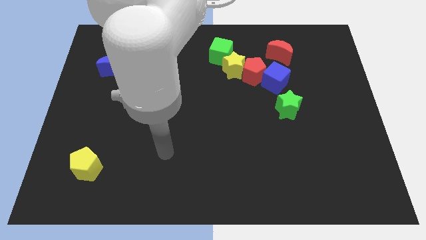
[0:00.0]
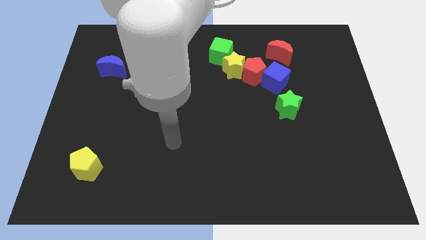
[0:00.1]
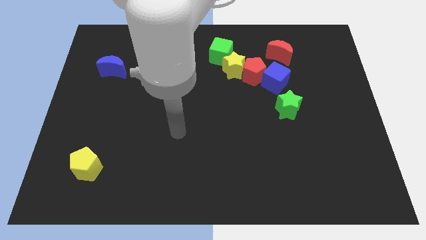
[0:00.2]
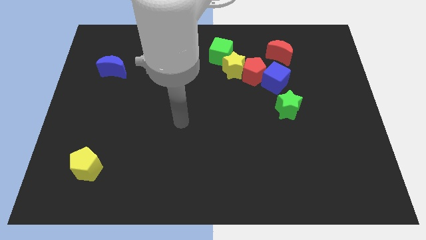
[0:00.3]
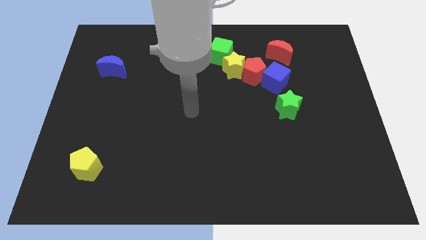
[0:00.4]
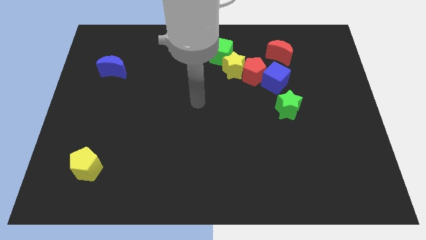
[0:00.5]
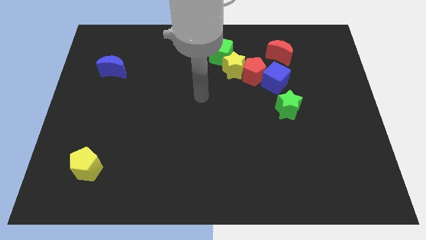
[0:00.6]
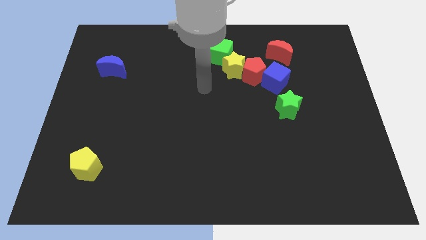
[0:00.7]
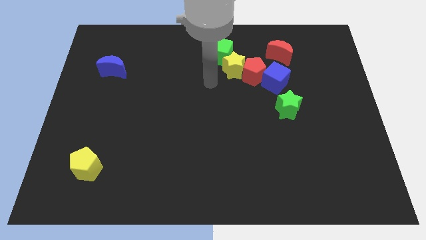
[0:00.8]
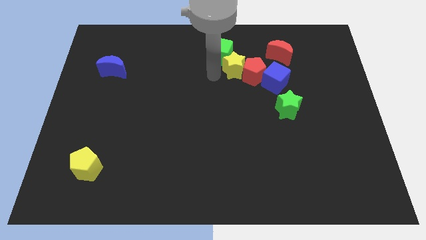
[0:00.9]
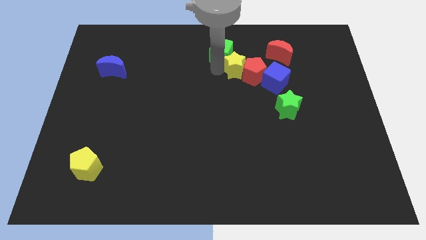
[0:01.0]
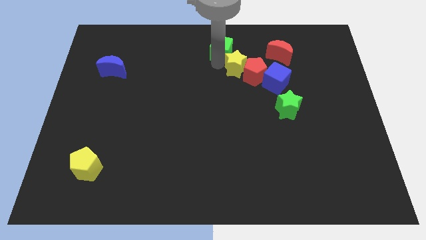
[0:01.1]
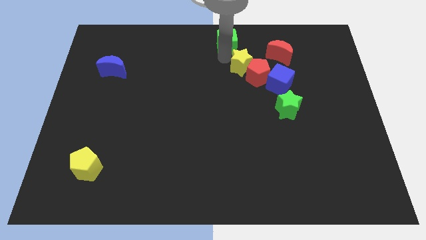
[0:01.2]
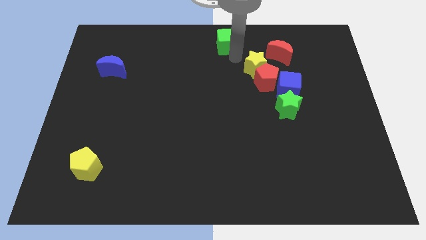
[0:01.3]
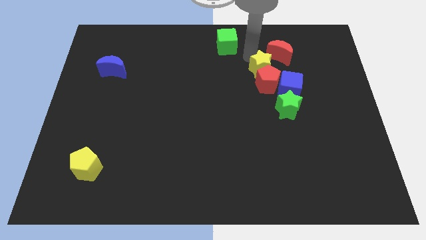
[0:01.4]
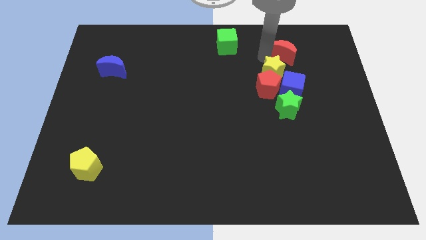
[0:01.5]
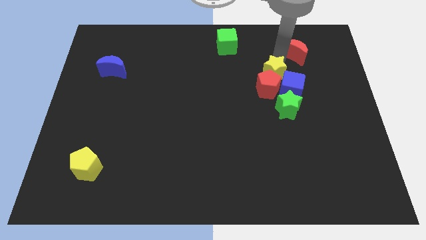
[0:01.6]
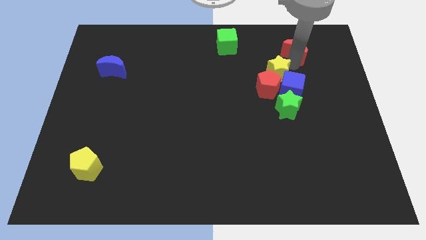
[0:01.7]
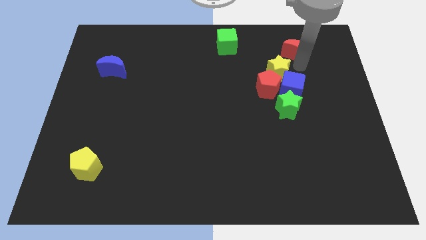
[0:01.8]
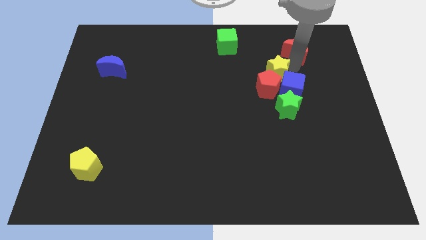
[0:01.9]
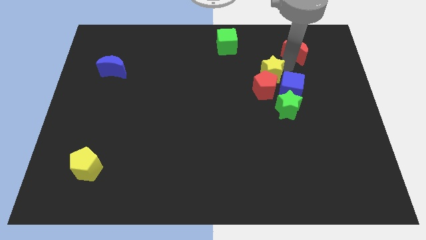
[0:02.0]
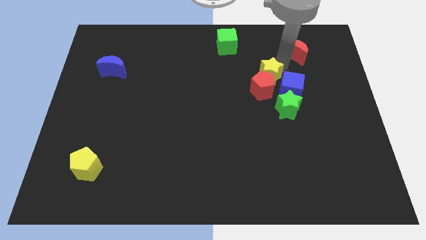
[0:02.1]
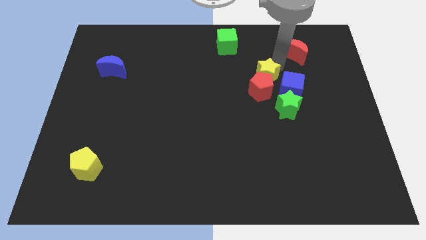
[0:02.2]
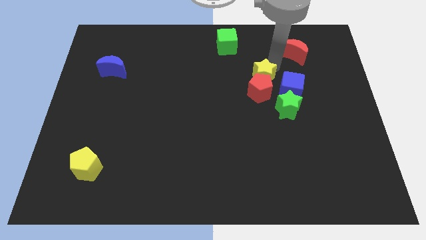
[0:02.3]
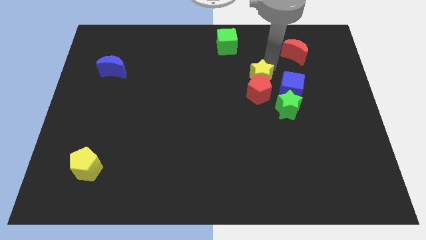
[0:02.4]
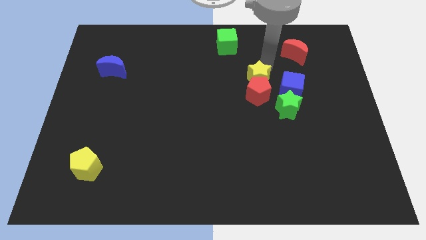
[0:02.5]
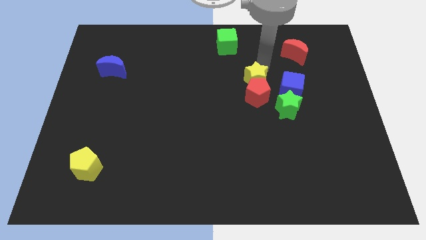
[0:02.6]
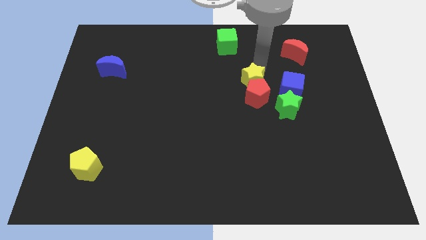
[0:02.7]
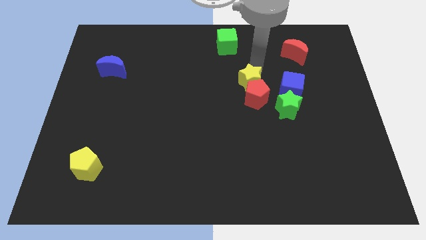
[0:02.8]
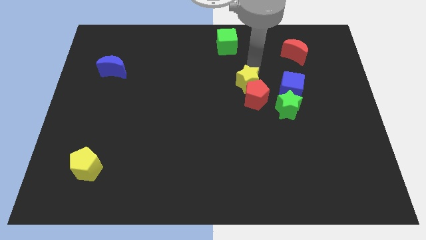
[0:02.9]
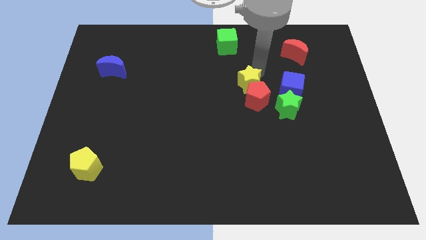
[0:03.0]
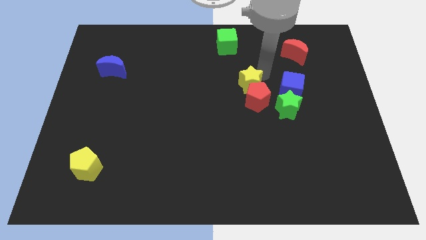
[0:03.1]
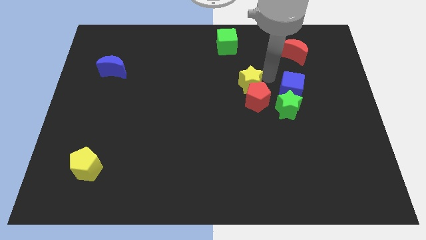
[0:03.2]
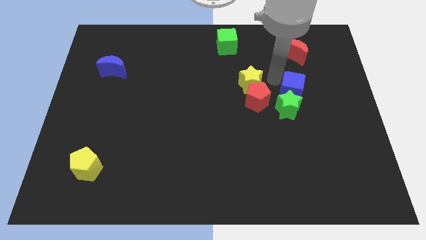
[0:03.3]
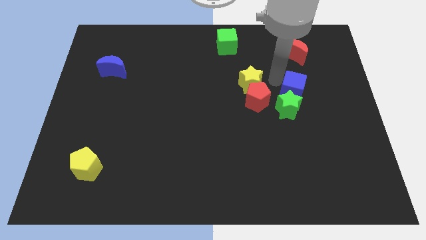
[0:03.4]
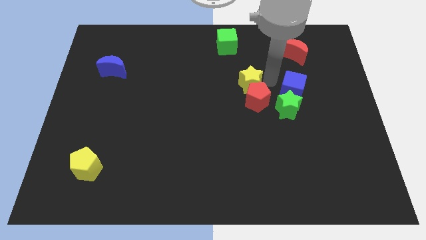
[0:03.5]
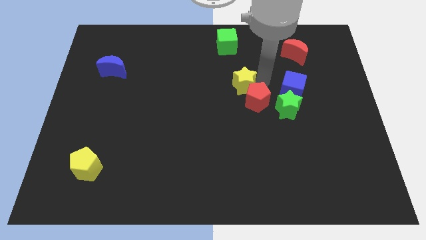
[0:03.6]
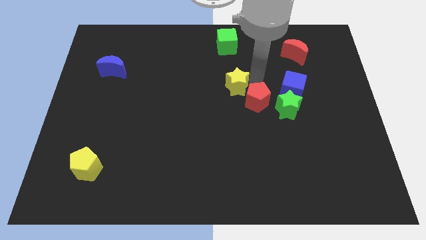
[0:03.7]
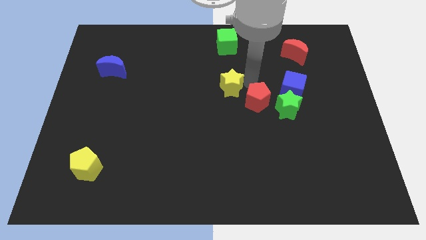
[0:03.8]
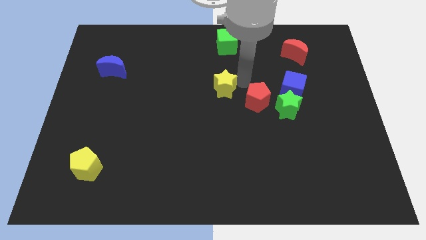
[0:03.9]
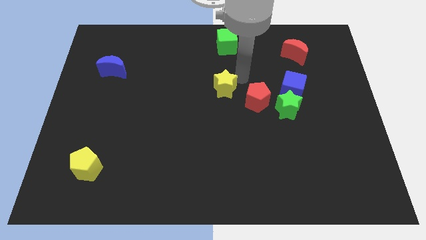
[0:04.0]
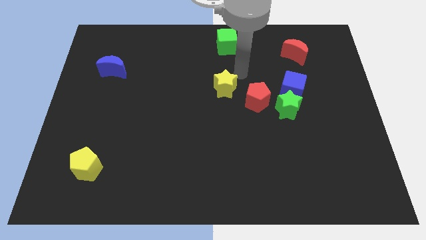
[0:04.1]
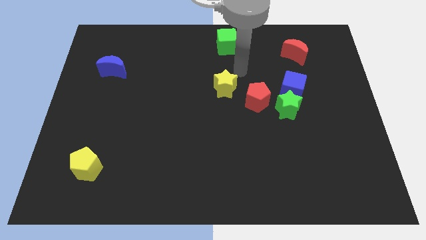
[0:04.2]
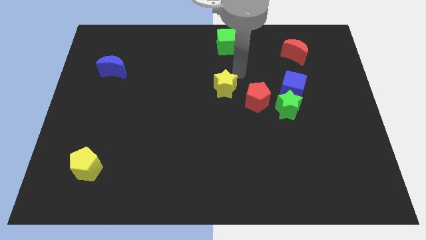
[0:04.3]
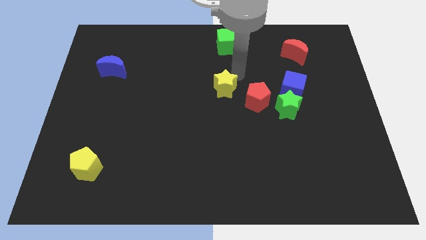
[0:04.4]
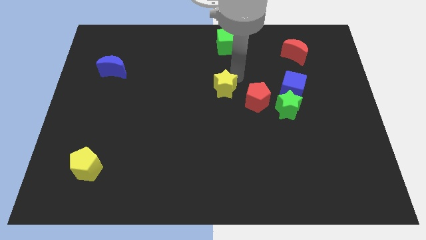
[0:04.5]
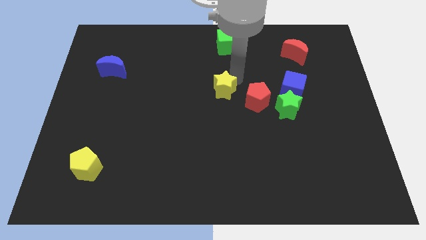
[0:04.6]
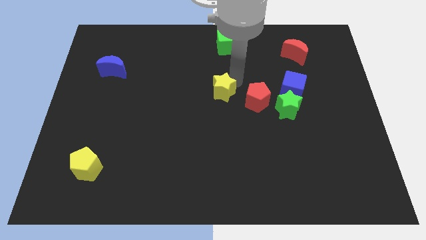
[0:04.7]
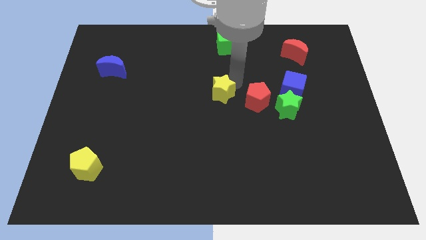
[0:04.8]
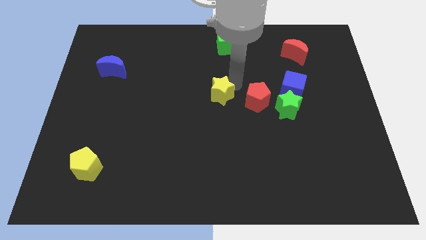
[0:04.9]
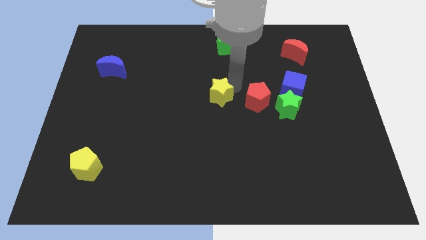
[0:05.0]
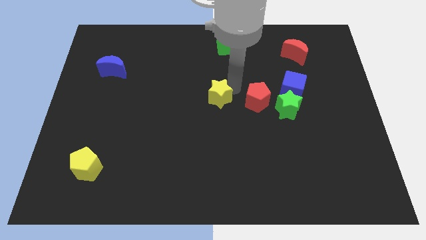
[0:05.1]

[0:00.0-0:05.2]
move the yellow star away from the red pentagon and green cube

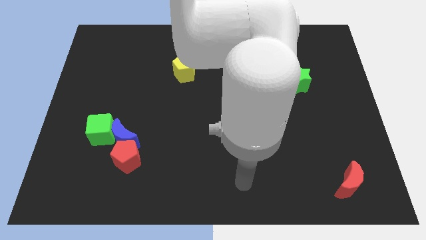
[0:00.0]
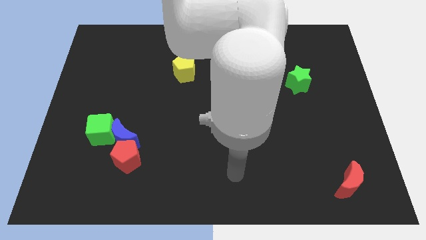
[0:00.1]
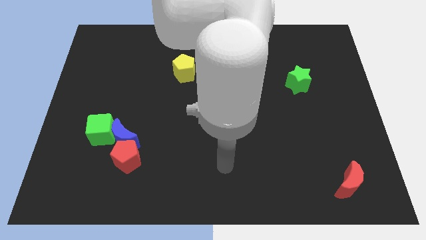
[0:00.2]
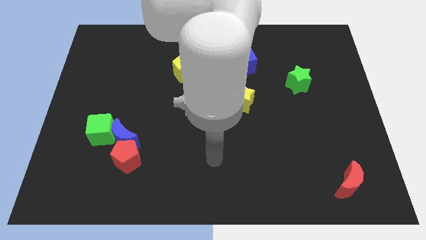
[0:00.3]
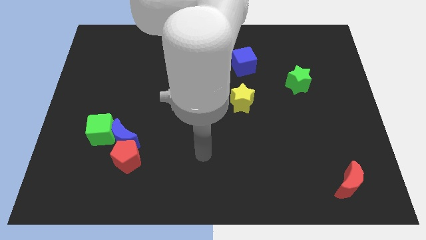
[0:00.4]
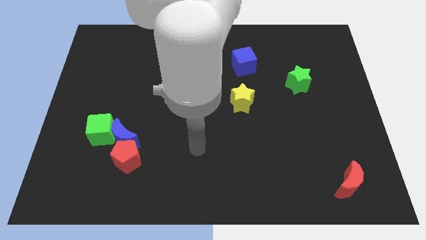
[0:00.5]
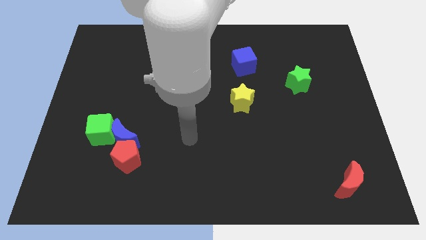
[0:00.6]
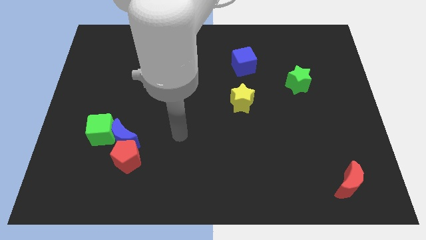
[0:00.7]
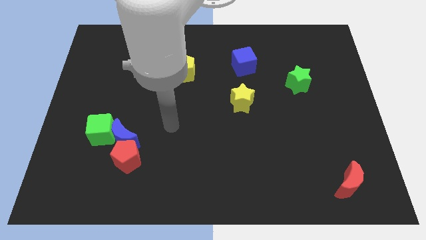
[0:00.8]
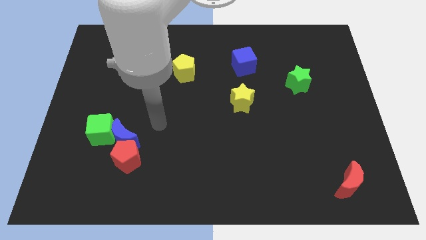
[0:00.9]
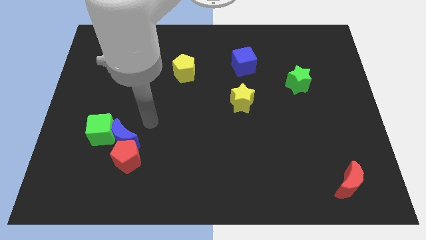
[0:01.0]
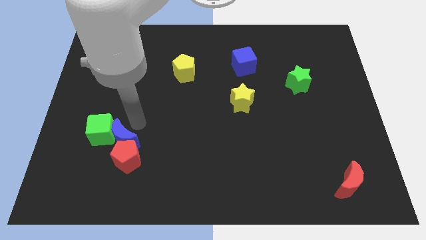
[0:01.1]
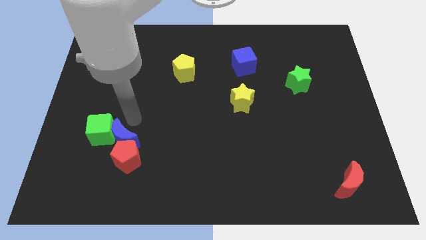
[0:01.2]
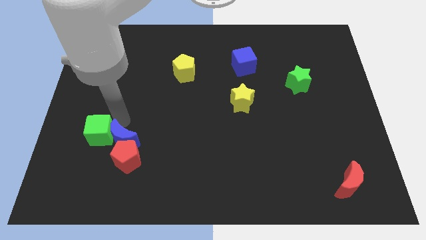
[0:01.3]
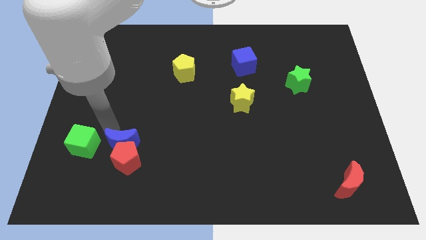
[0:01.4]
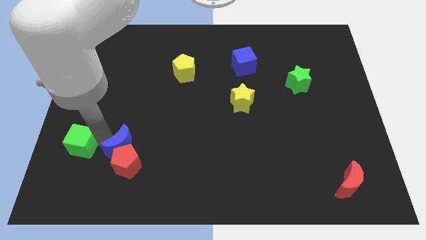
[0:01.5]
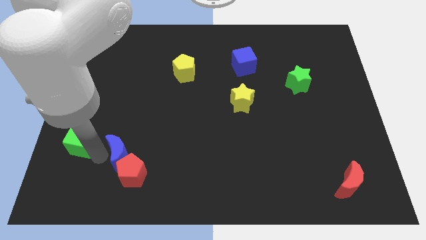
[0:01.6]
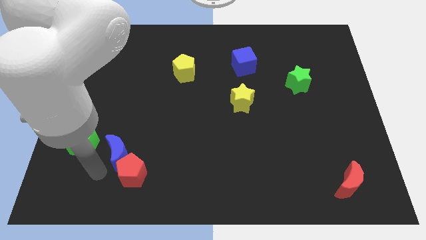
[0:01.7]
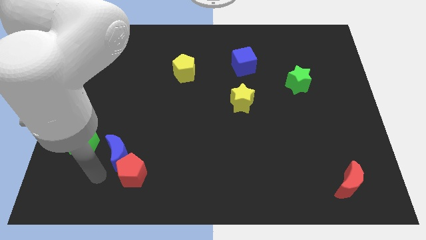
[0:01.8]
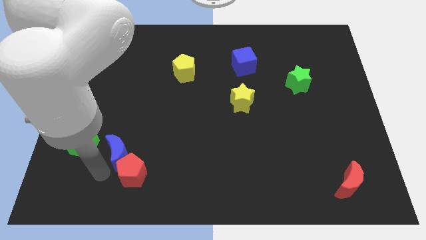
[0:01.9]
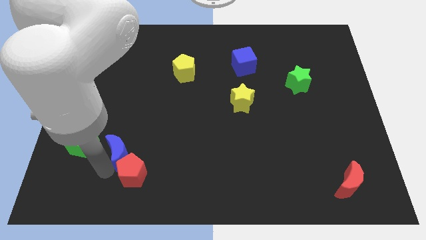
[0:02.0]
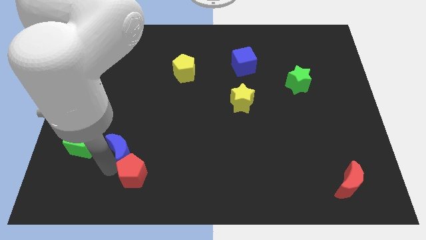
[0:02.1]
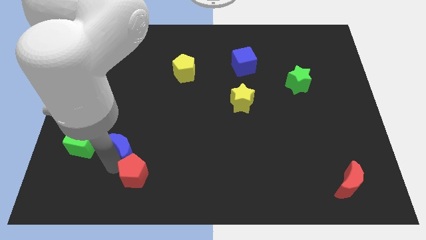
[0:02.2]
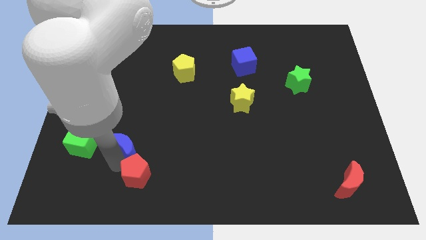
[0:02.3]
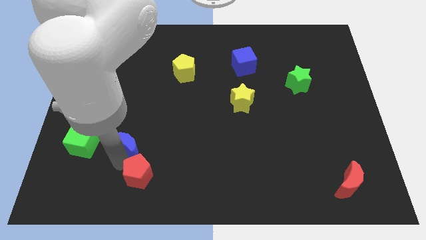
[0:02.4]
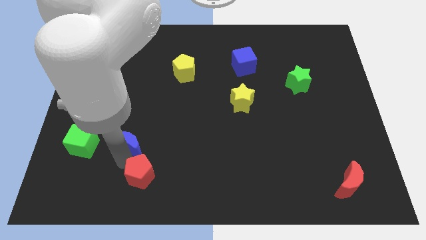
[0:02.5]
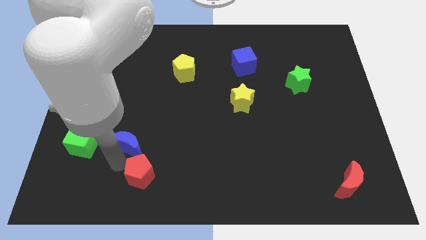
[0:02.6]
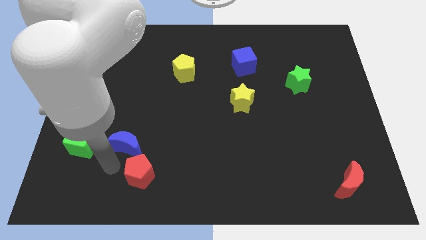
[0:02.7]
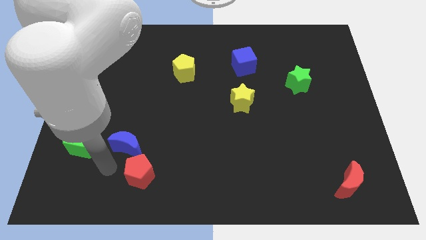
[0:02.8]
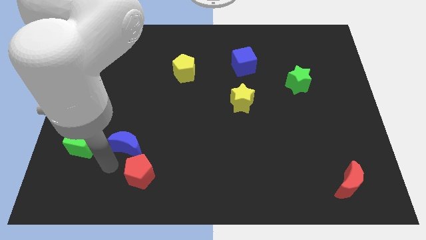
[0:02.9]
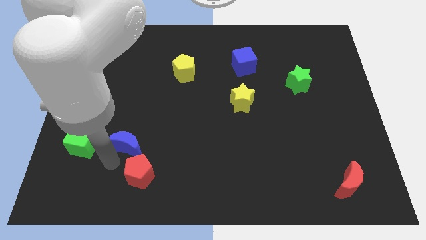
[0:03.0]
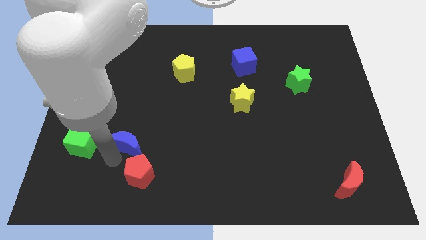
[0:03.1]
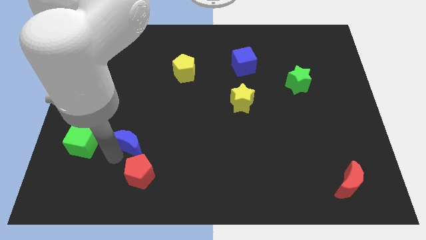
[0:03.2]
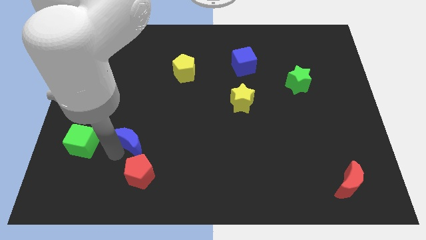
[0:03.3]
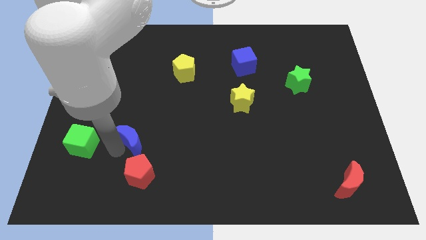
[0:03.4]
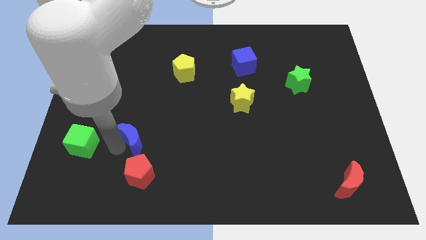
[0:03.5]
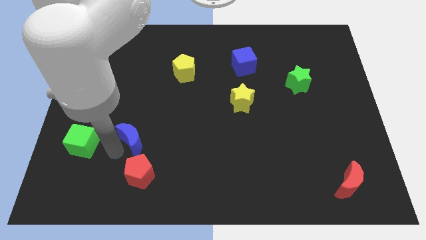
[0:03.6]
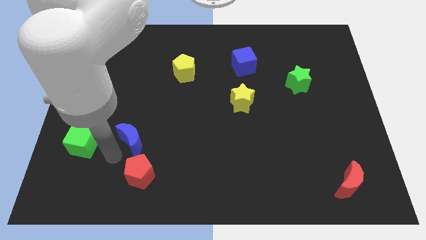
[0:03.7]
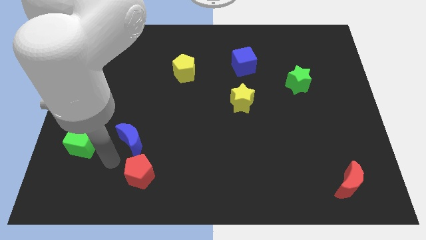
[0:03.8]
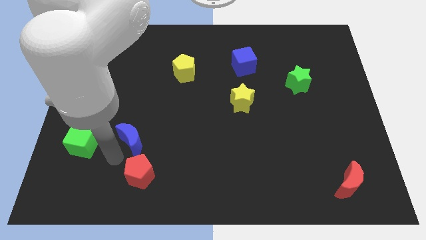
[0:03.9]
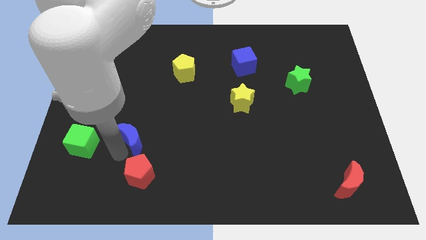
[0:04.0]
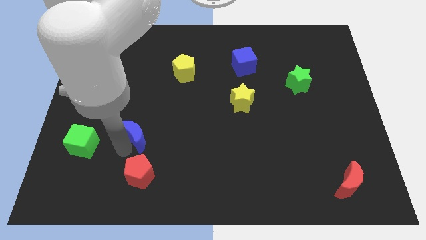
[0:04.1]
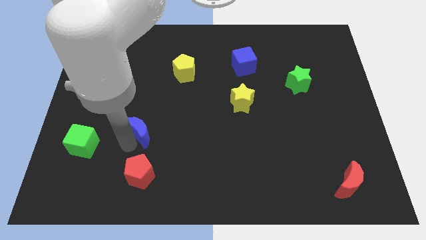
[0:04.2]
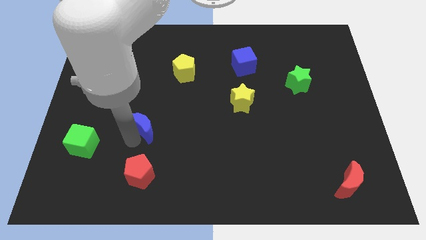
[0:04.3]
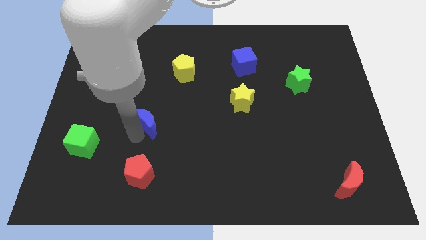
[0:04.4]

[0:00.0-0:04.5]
pull the blue moon apart from the red pentagon and green cube
